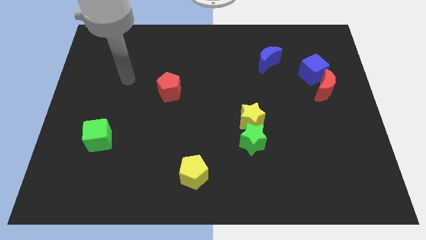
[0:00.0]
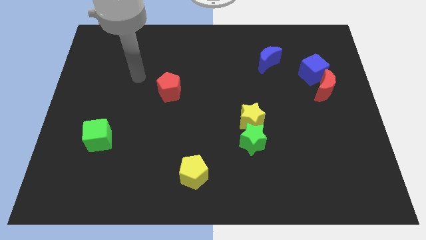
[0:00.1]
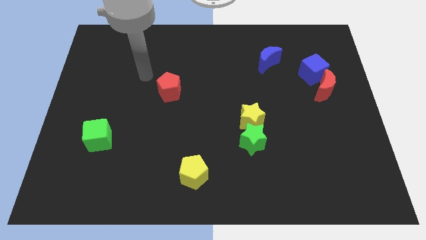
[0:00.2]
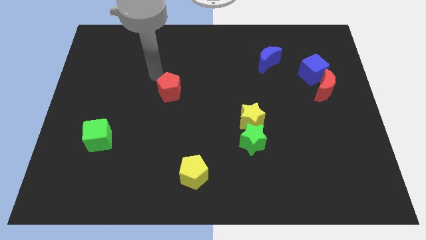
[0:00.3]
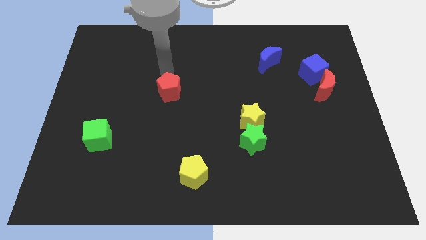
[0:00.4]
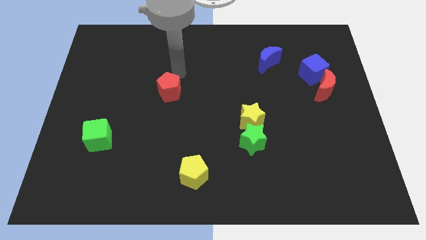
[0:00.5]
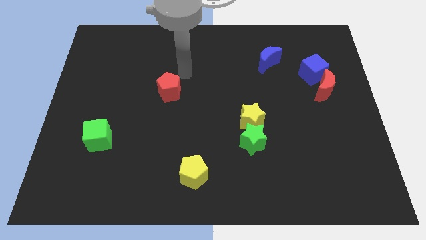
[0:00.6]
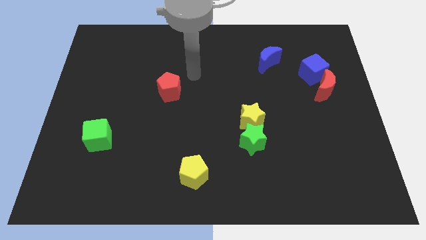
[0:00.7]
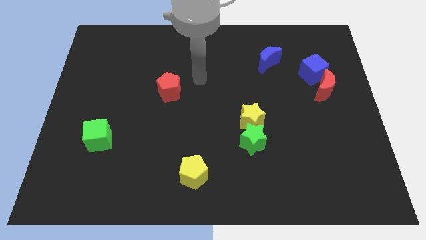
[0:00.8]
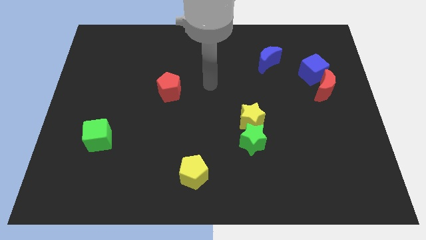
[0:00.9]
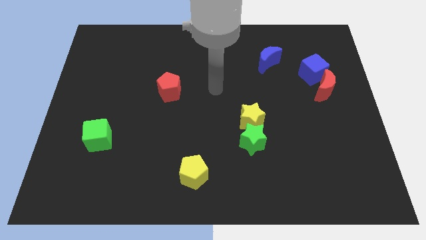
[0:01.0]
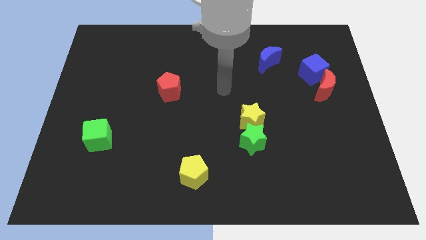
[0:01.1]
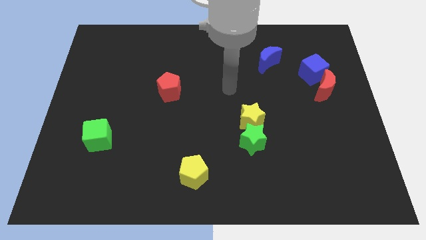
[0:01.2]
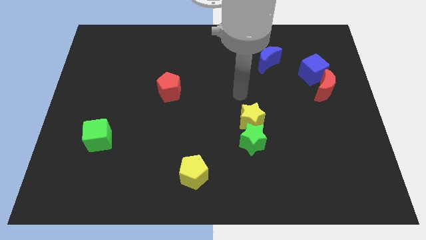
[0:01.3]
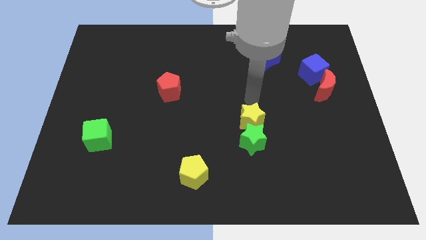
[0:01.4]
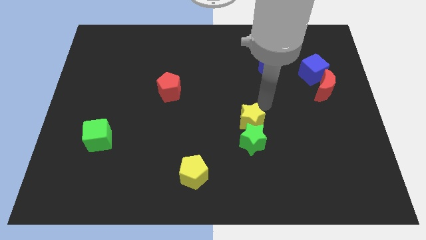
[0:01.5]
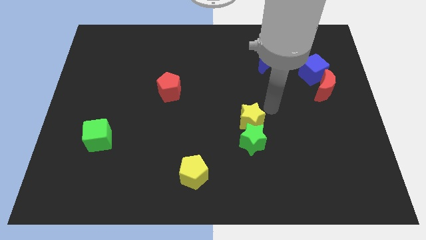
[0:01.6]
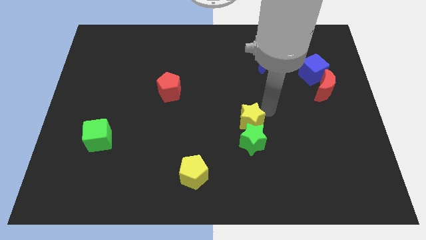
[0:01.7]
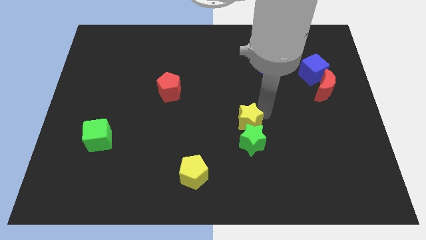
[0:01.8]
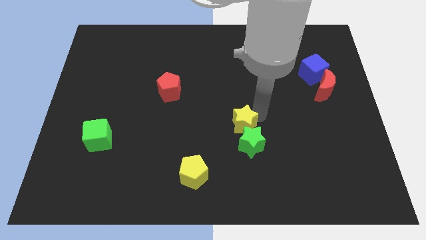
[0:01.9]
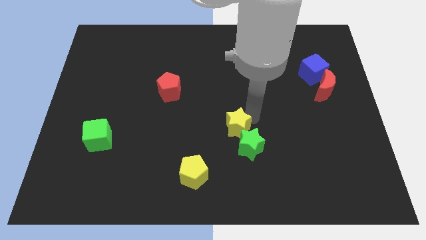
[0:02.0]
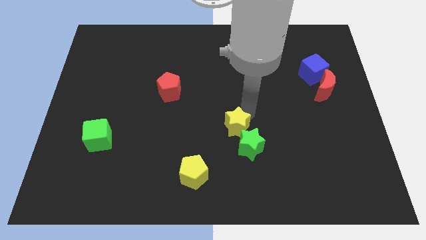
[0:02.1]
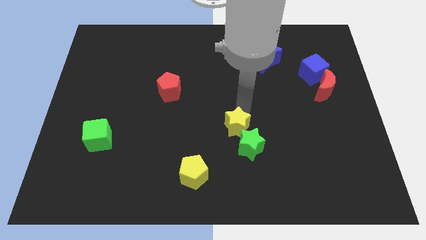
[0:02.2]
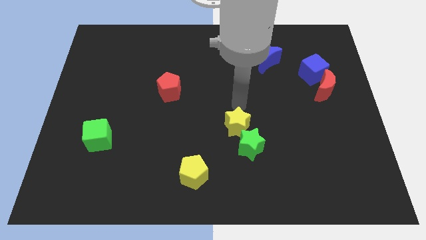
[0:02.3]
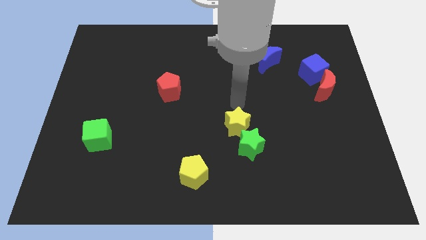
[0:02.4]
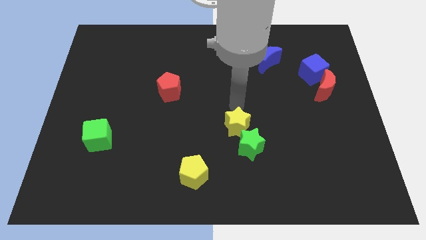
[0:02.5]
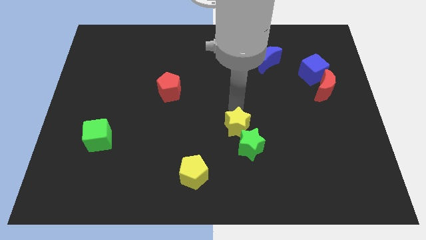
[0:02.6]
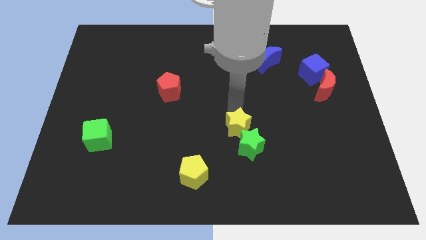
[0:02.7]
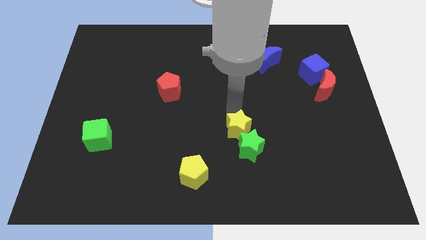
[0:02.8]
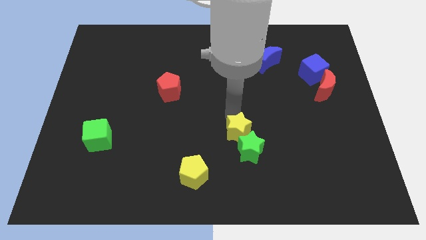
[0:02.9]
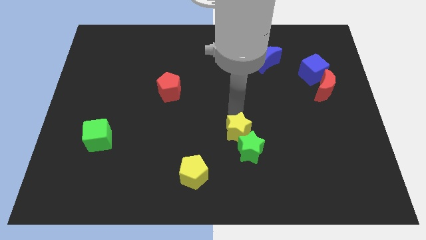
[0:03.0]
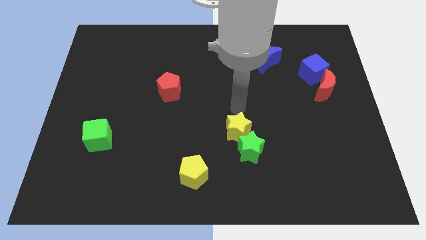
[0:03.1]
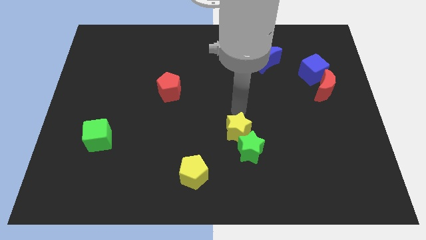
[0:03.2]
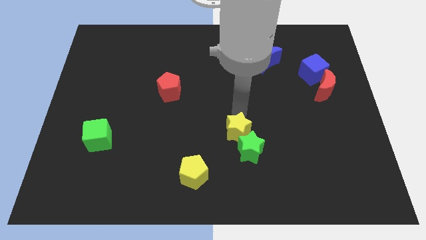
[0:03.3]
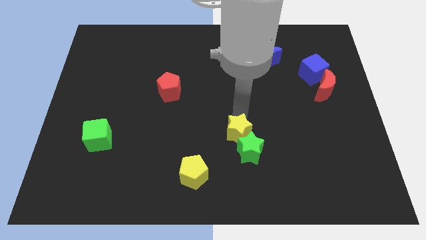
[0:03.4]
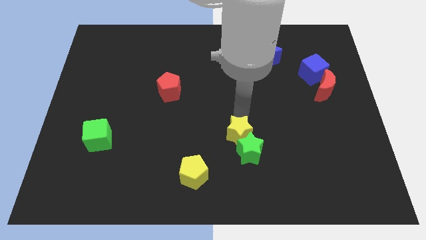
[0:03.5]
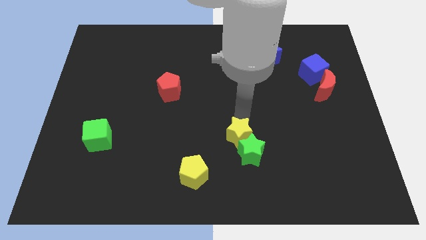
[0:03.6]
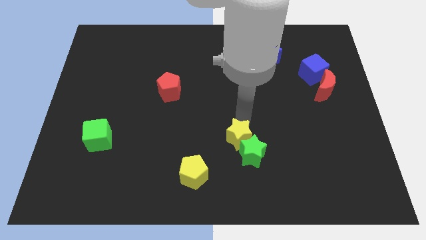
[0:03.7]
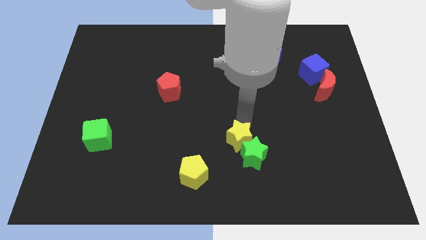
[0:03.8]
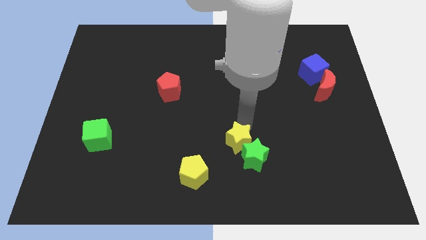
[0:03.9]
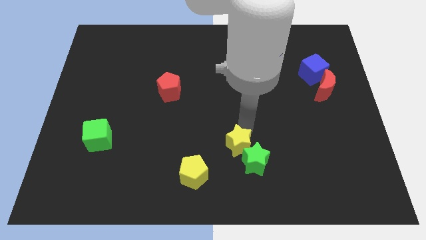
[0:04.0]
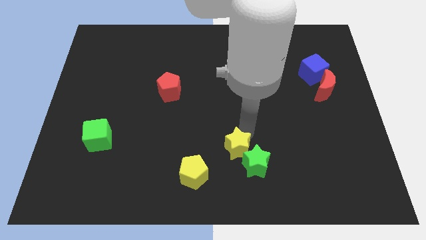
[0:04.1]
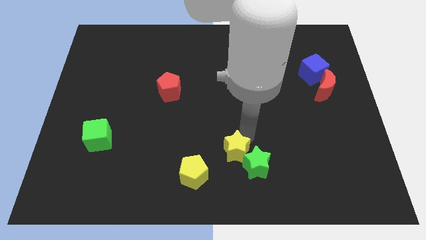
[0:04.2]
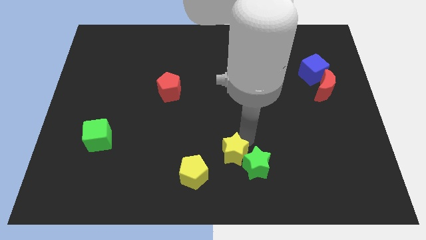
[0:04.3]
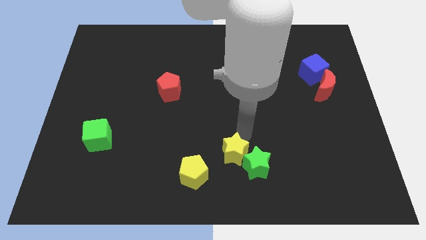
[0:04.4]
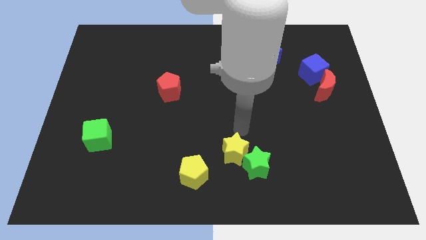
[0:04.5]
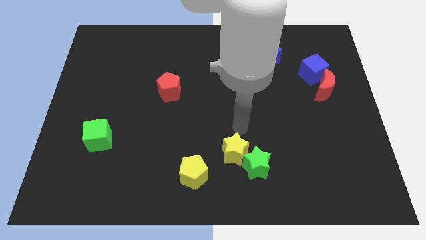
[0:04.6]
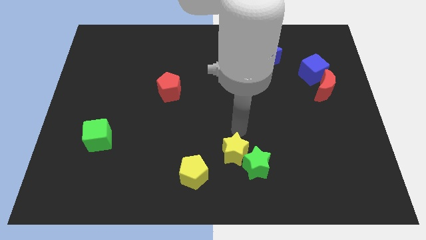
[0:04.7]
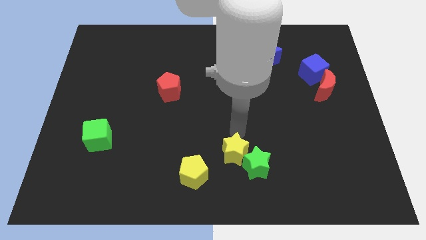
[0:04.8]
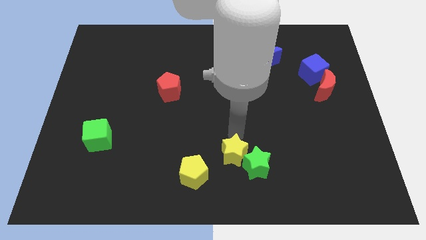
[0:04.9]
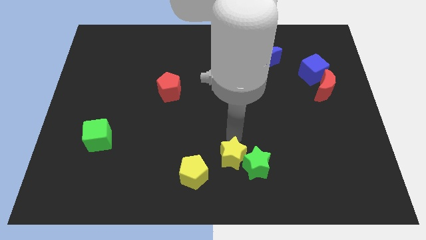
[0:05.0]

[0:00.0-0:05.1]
push the yellow star to the bottom

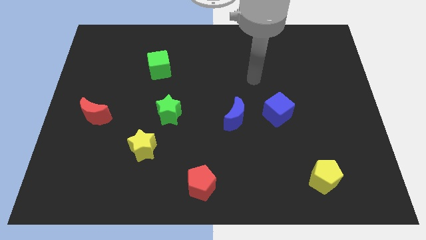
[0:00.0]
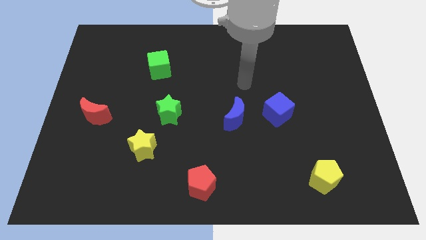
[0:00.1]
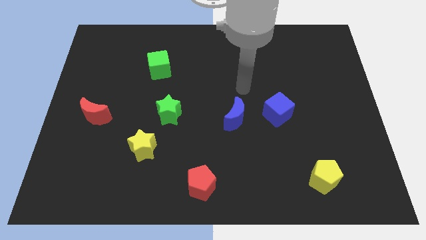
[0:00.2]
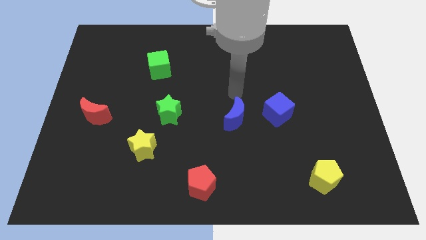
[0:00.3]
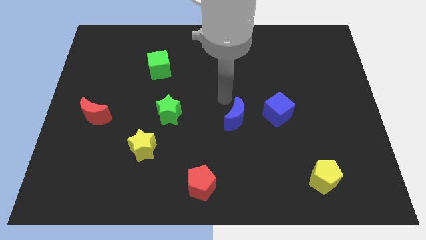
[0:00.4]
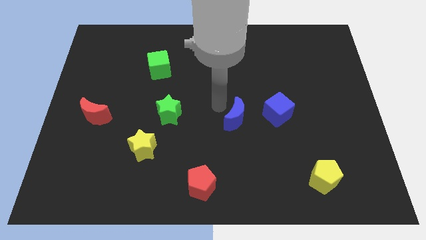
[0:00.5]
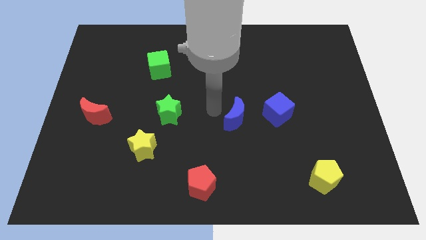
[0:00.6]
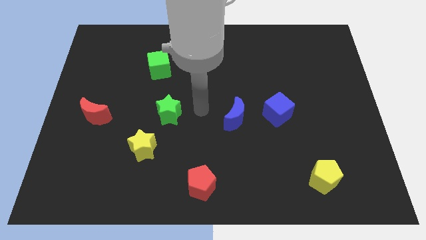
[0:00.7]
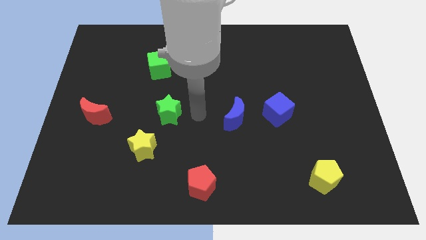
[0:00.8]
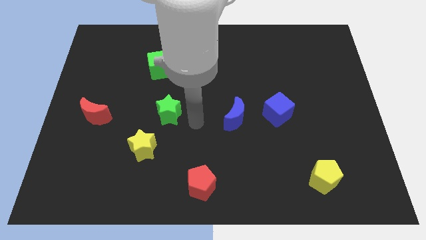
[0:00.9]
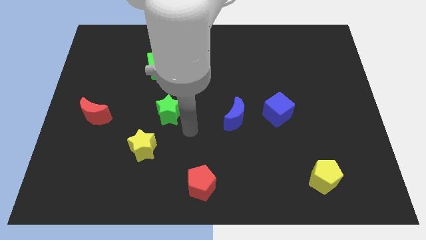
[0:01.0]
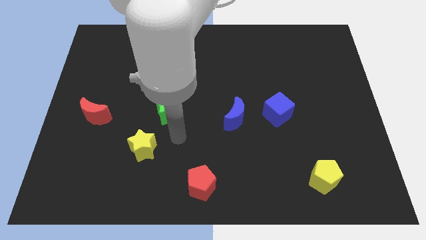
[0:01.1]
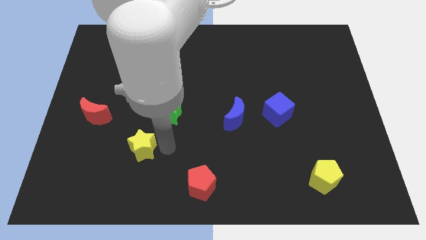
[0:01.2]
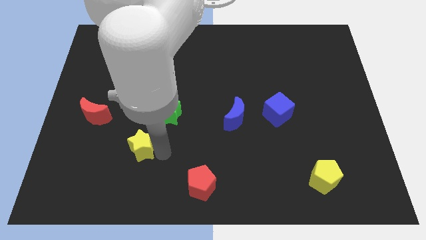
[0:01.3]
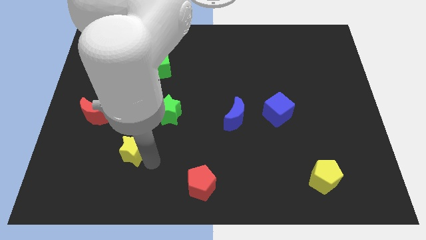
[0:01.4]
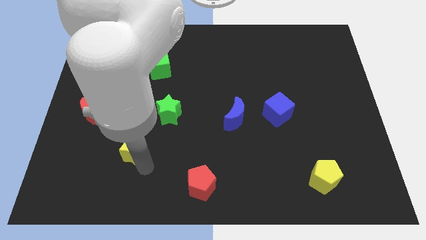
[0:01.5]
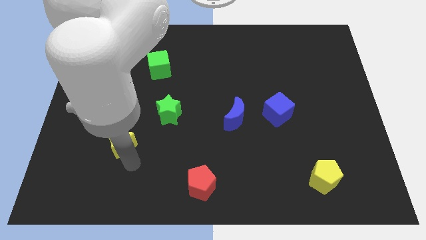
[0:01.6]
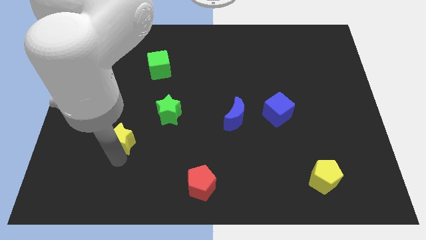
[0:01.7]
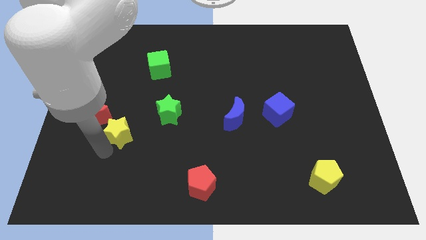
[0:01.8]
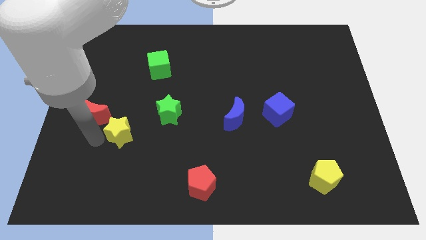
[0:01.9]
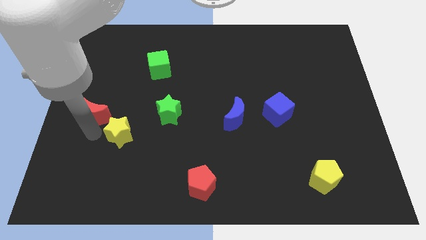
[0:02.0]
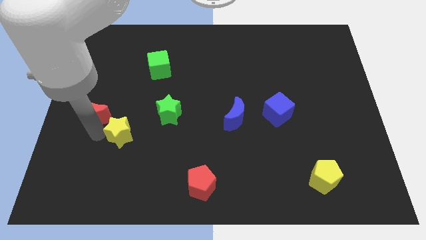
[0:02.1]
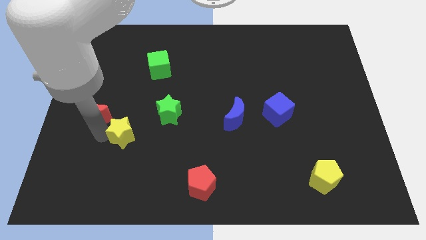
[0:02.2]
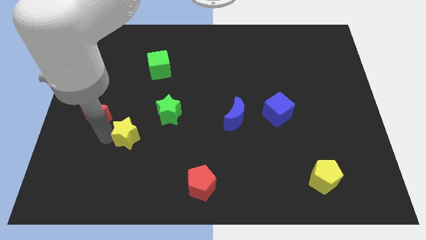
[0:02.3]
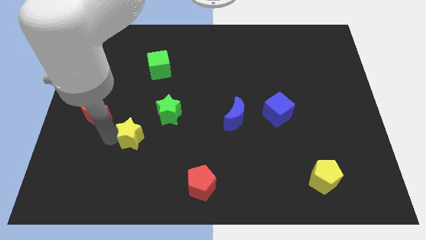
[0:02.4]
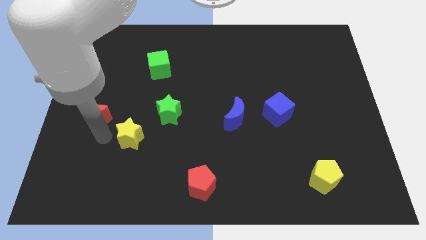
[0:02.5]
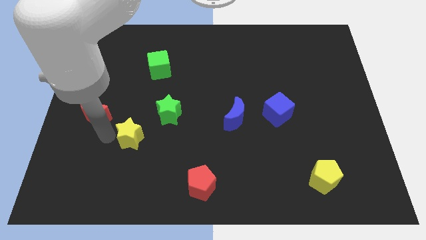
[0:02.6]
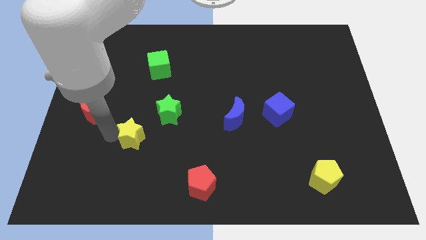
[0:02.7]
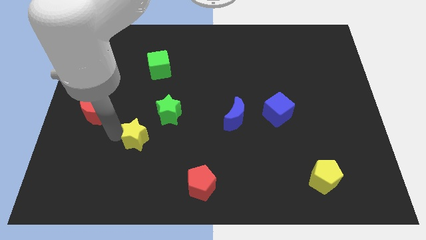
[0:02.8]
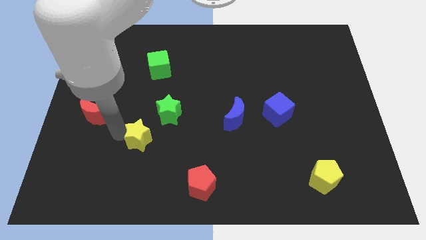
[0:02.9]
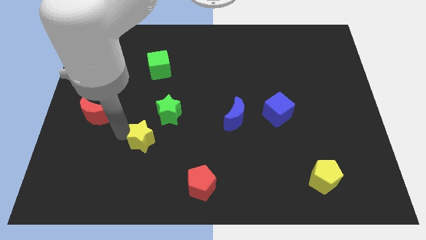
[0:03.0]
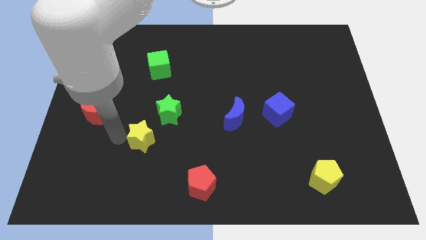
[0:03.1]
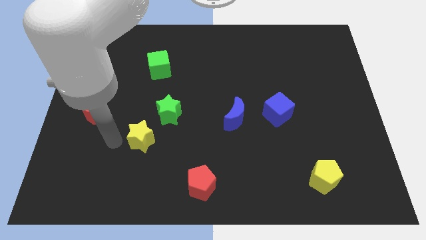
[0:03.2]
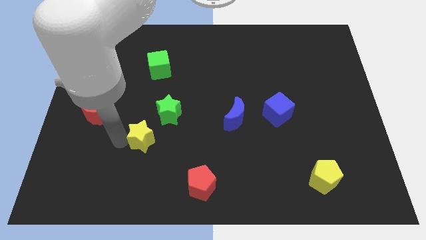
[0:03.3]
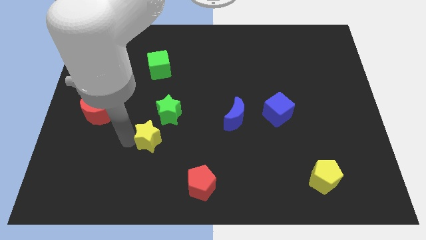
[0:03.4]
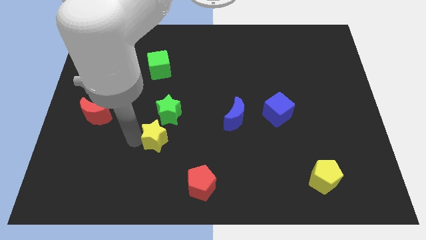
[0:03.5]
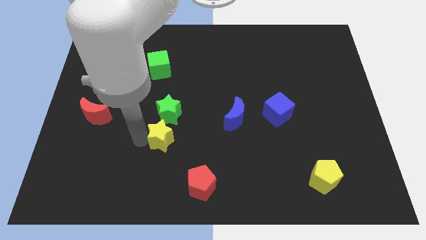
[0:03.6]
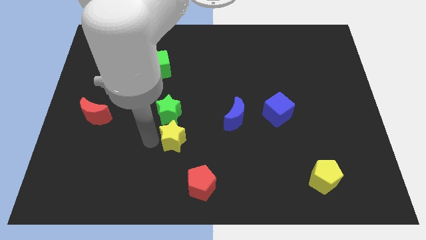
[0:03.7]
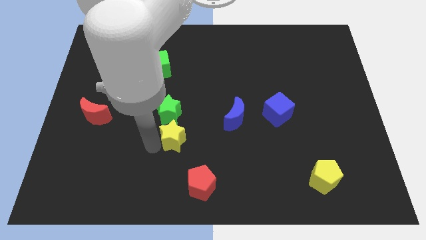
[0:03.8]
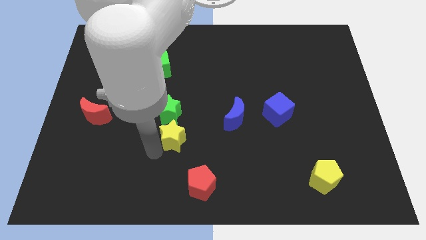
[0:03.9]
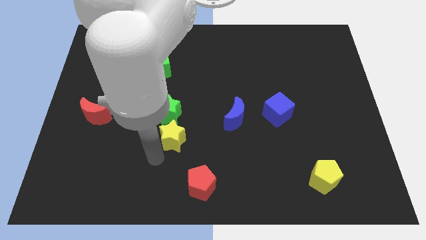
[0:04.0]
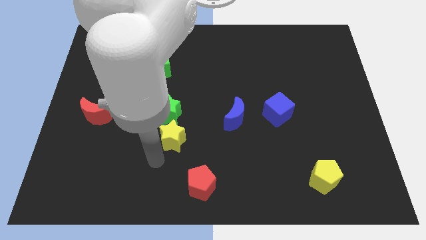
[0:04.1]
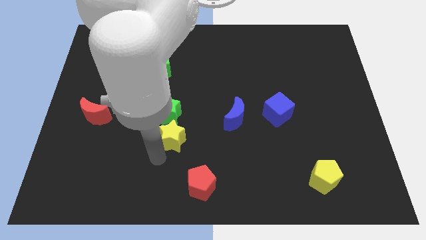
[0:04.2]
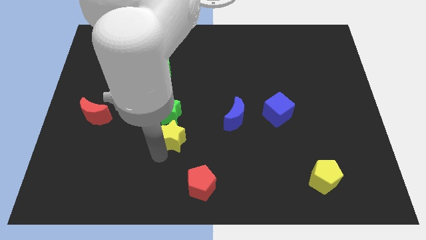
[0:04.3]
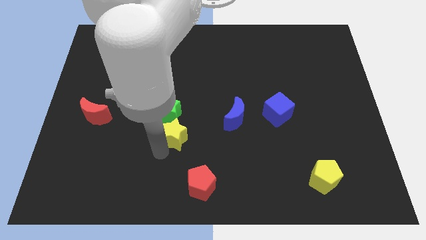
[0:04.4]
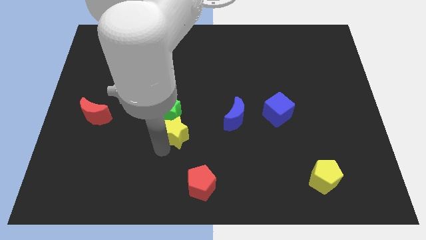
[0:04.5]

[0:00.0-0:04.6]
move the yellow star to the middle
